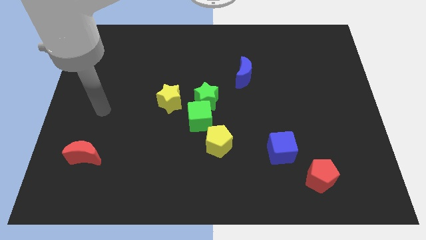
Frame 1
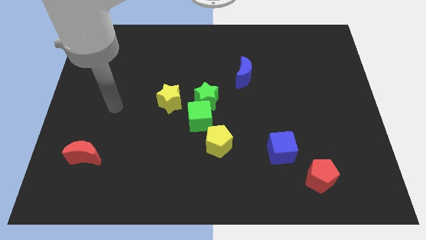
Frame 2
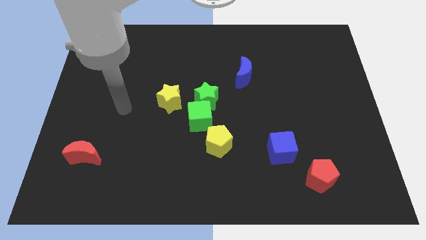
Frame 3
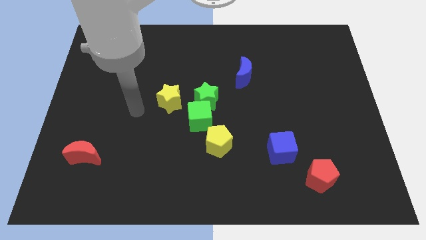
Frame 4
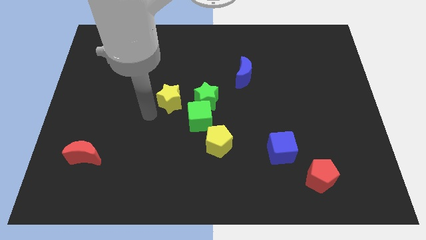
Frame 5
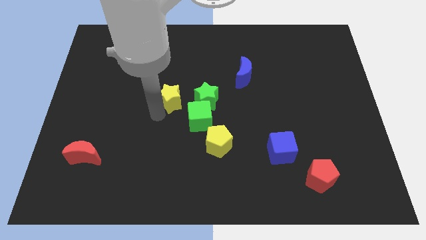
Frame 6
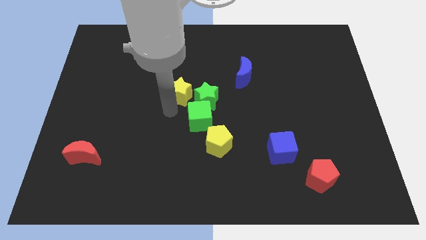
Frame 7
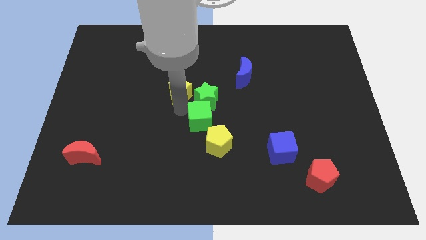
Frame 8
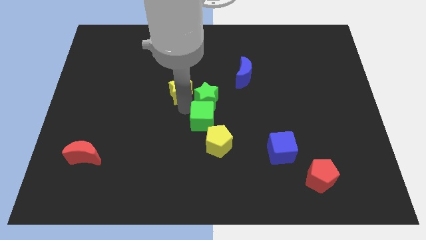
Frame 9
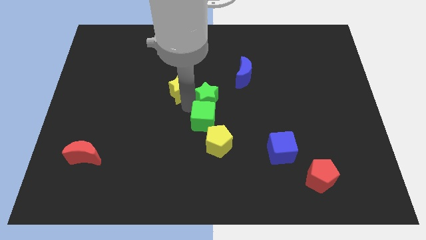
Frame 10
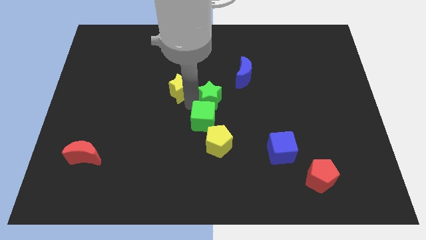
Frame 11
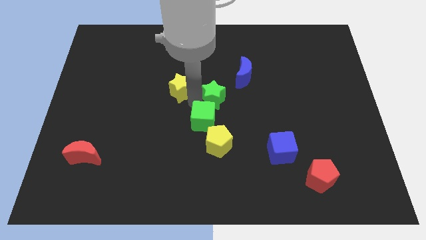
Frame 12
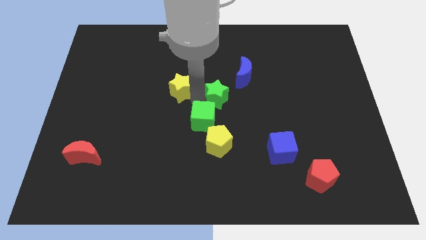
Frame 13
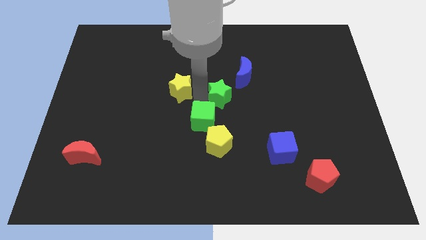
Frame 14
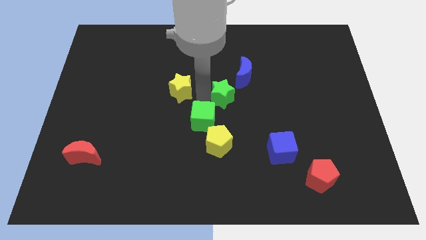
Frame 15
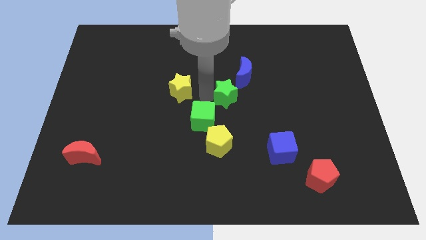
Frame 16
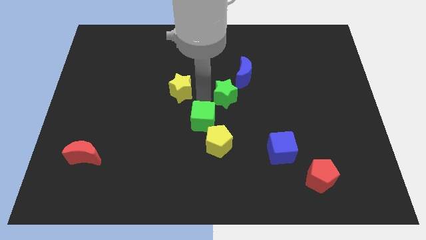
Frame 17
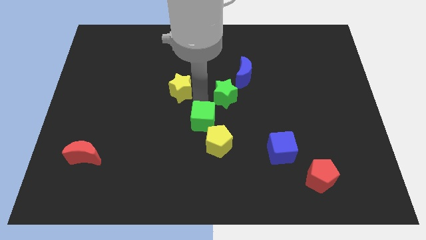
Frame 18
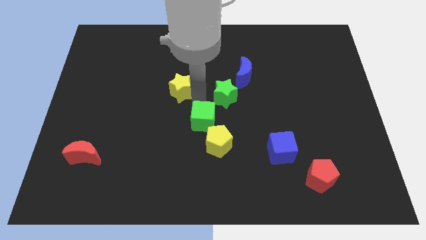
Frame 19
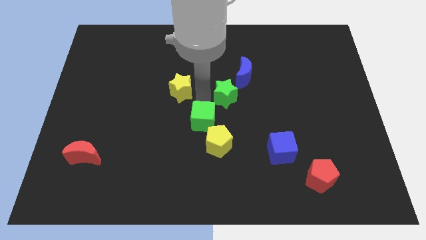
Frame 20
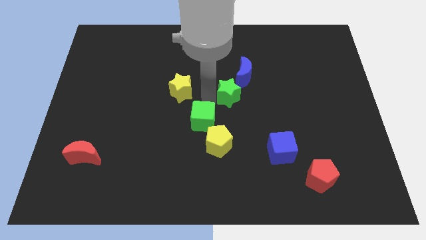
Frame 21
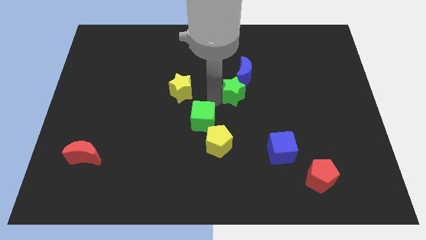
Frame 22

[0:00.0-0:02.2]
pull the green star apart from the green cube and yellow star

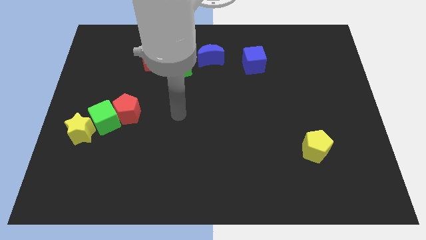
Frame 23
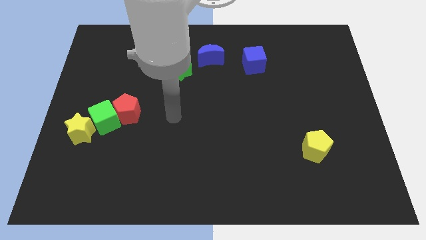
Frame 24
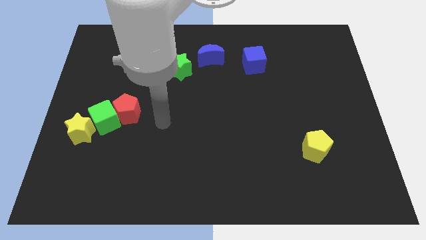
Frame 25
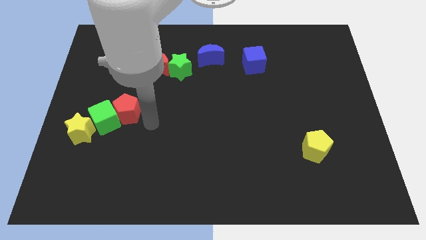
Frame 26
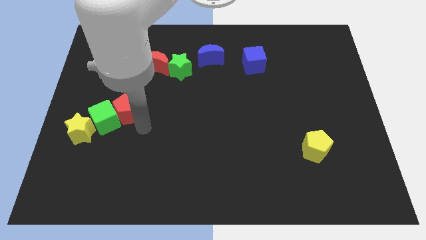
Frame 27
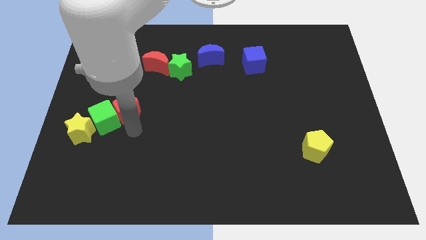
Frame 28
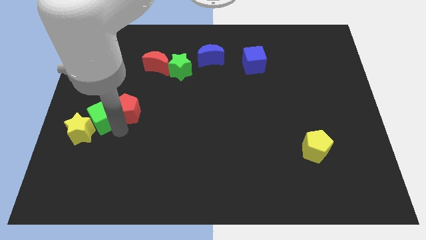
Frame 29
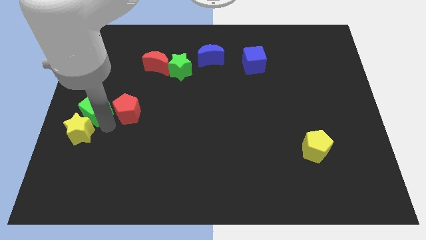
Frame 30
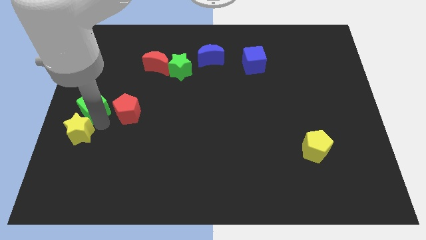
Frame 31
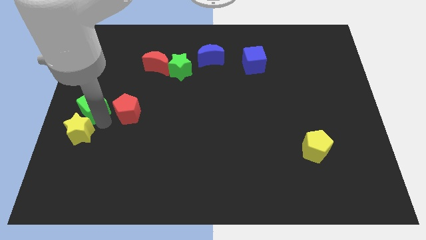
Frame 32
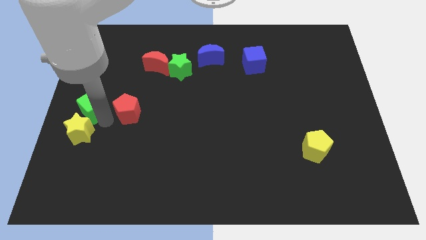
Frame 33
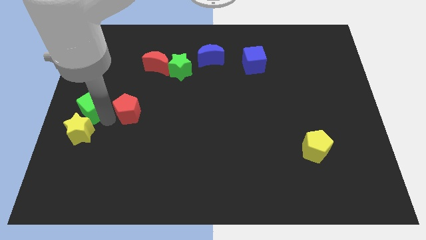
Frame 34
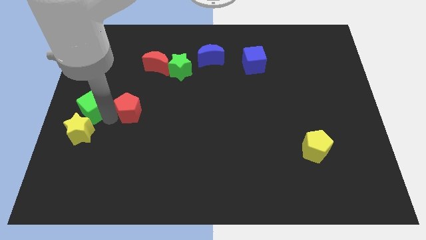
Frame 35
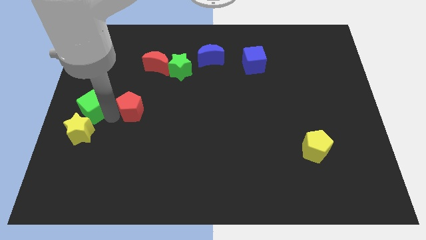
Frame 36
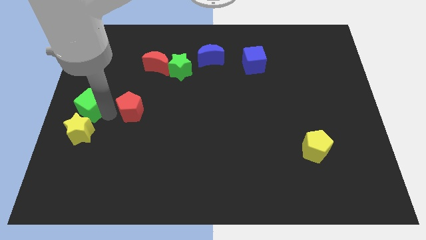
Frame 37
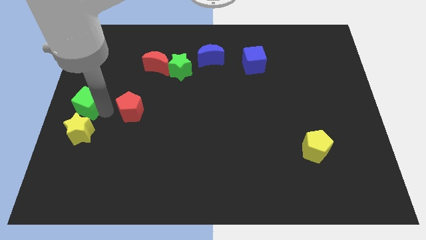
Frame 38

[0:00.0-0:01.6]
separate the red pentagon from the green cube

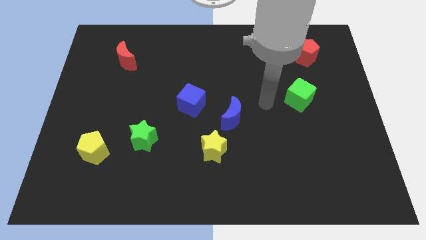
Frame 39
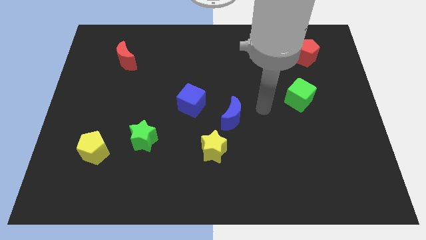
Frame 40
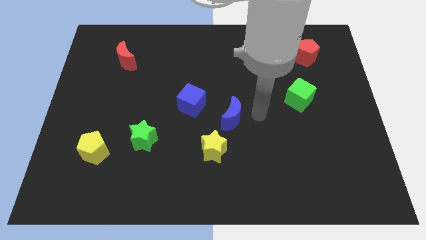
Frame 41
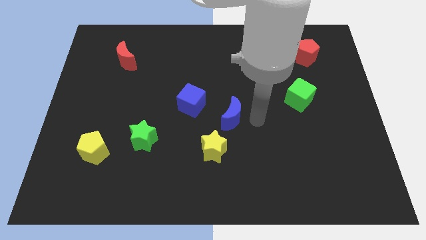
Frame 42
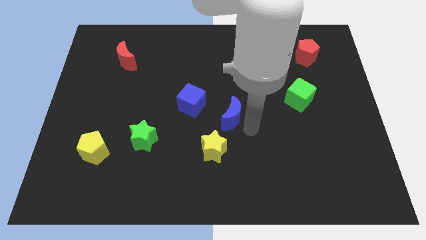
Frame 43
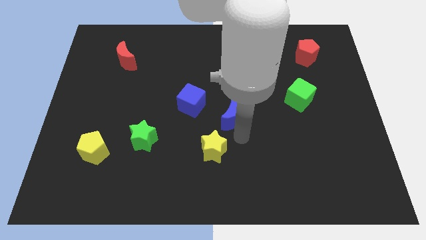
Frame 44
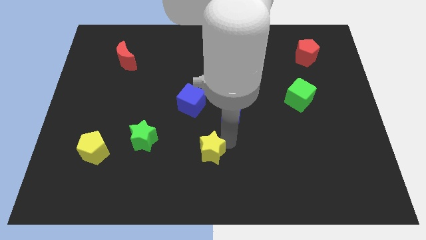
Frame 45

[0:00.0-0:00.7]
move the blue moon away from the yellow star

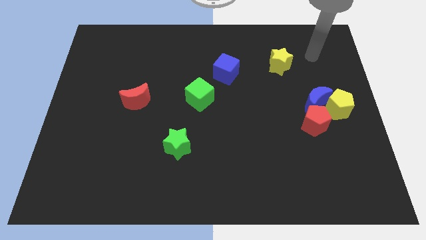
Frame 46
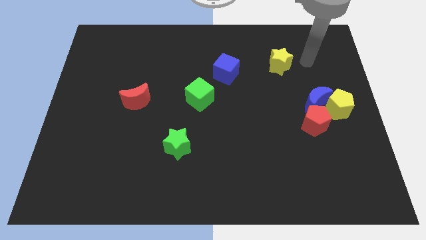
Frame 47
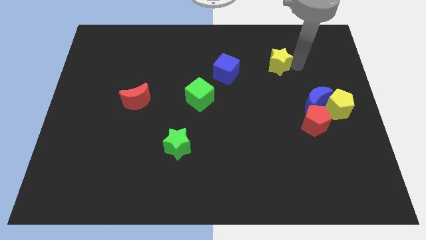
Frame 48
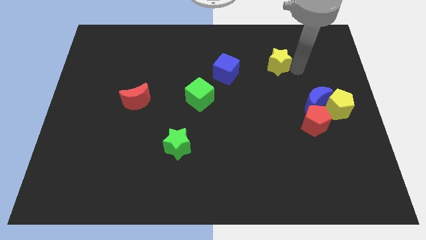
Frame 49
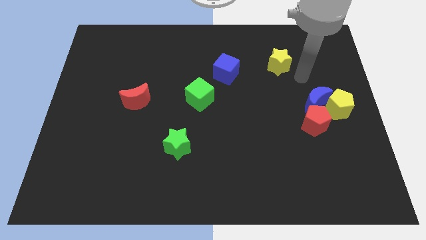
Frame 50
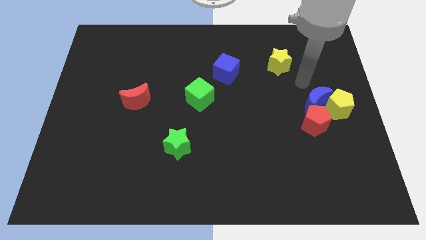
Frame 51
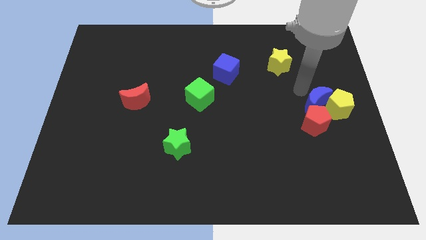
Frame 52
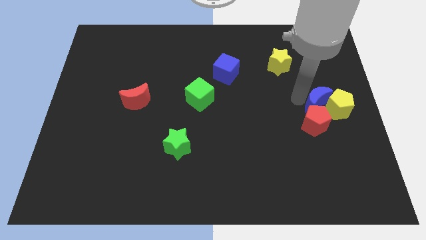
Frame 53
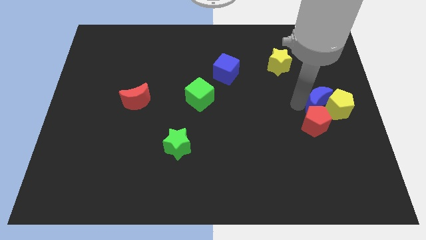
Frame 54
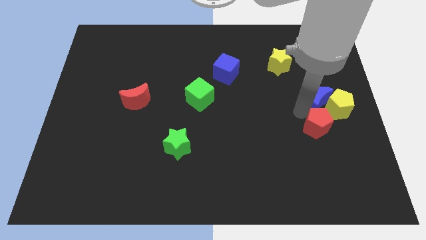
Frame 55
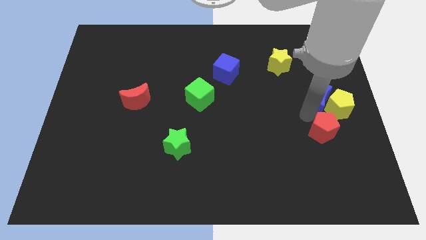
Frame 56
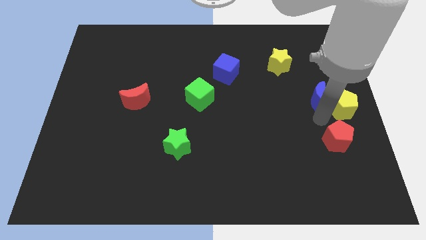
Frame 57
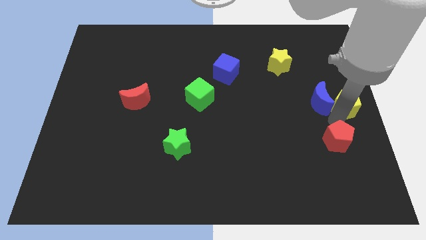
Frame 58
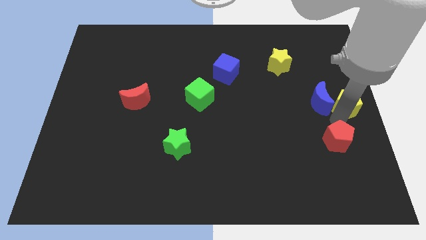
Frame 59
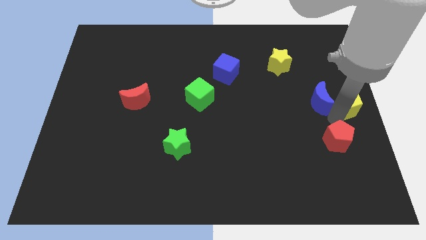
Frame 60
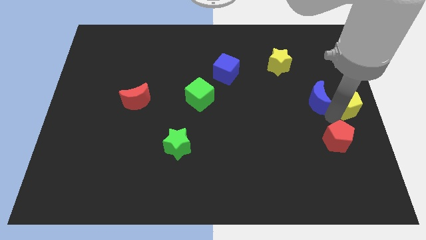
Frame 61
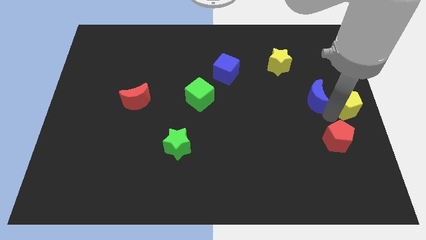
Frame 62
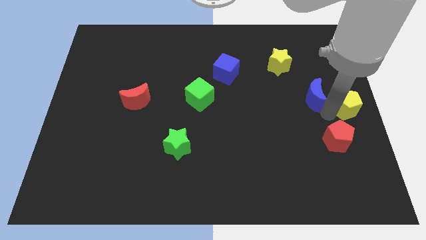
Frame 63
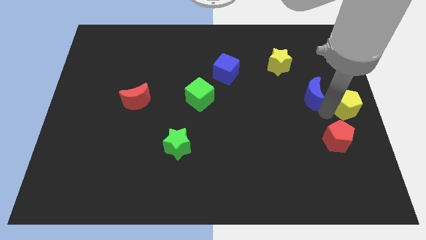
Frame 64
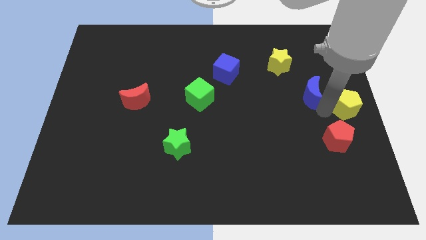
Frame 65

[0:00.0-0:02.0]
pull the blue moon apart from the yellow pentagon and red pentagon

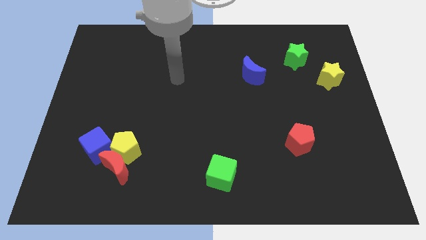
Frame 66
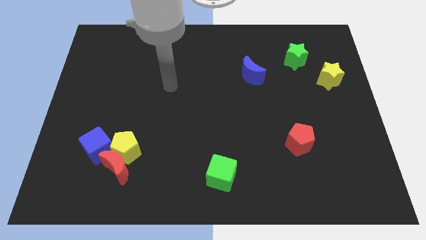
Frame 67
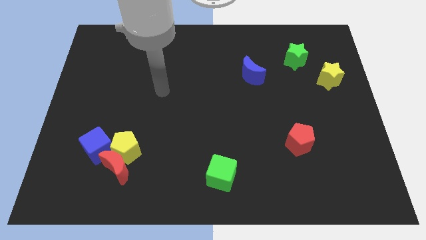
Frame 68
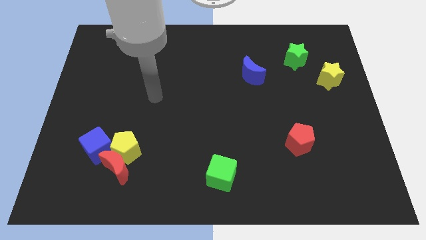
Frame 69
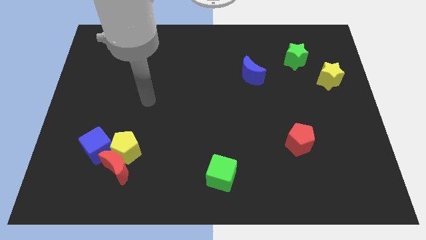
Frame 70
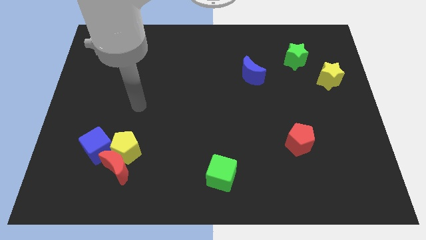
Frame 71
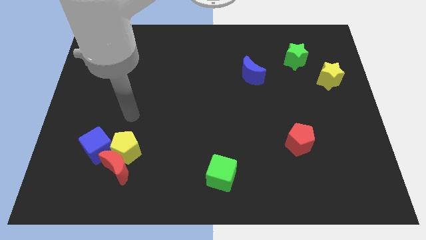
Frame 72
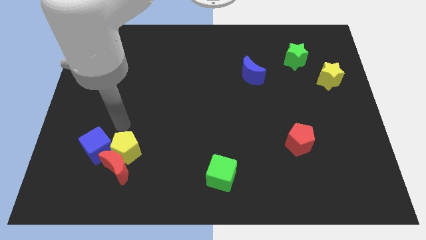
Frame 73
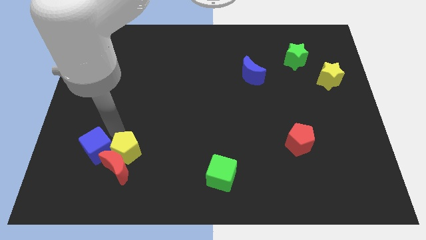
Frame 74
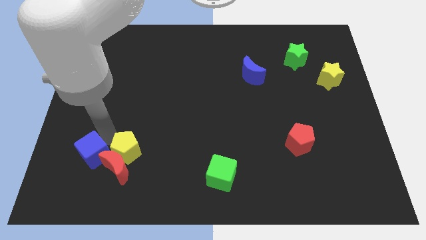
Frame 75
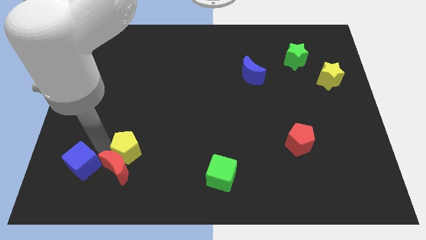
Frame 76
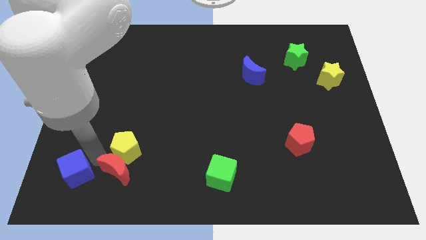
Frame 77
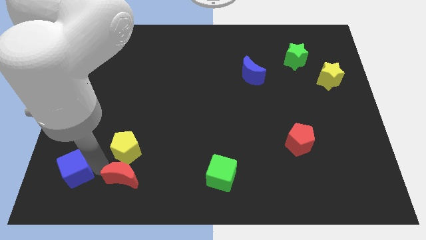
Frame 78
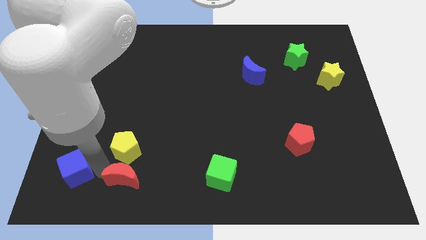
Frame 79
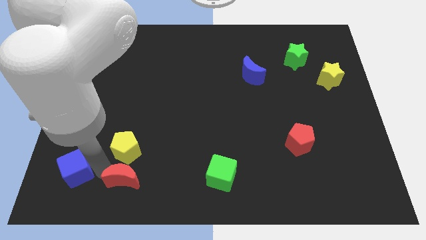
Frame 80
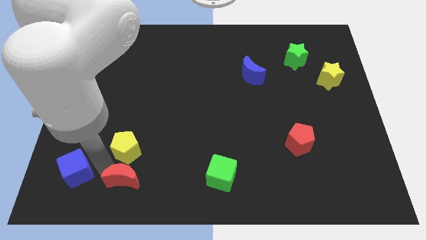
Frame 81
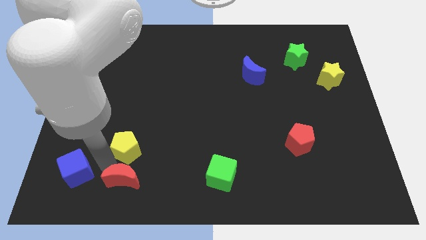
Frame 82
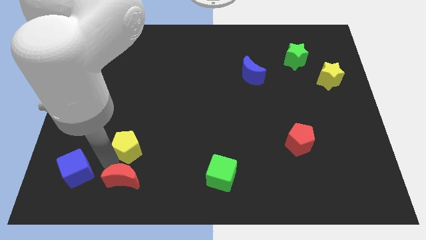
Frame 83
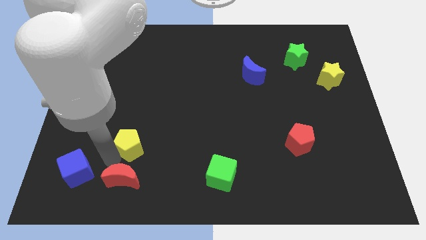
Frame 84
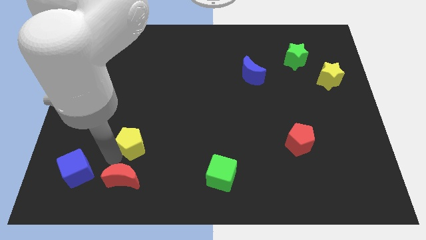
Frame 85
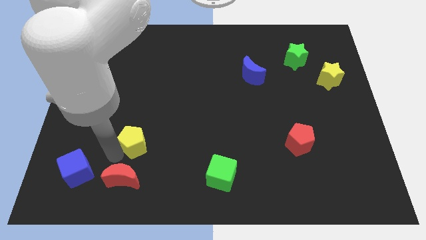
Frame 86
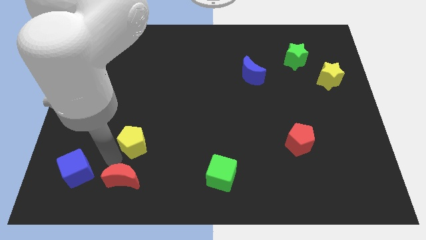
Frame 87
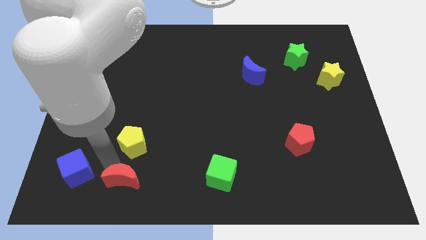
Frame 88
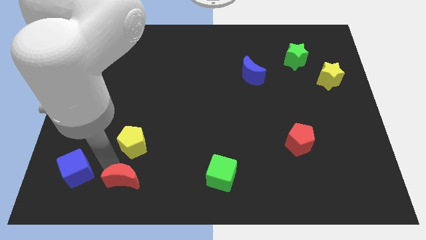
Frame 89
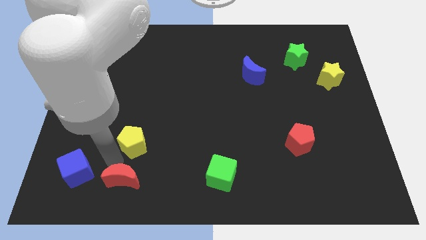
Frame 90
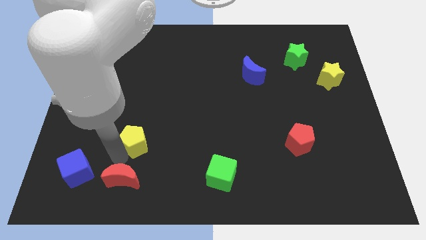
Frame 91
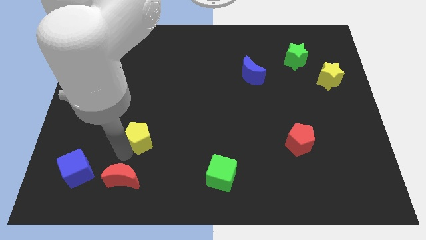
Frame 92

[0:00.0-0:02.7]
move the yellow pentagon away from the red moon and blue cube

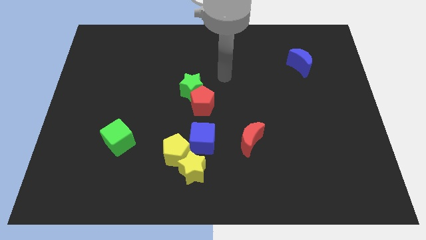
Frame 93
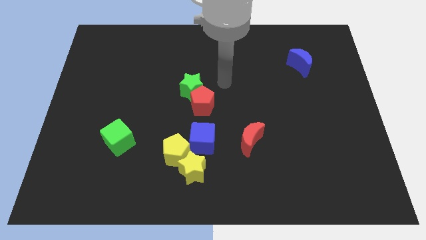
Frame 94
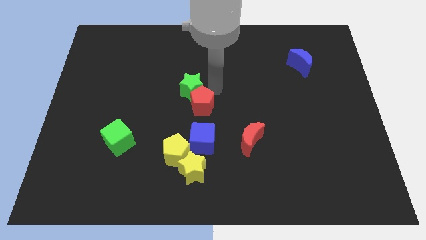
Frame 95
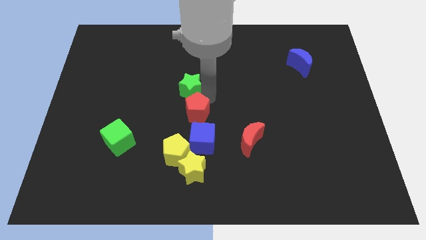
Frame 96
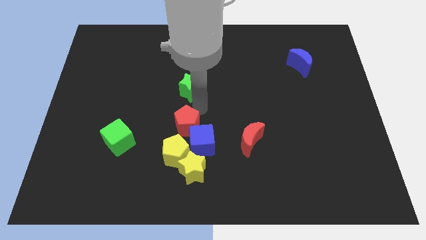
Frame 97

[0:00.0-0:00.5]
move the green star away from the red pentagon
